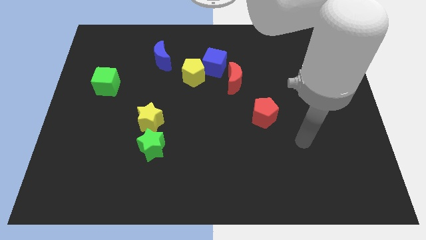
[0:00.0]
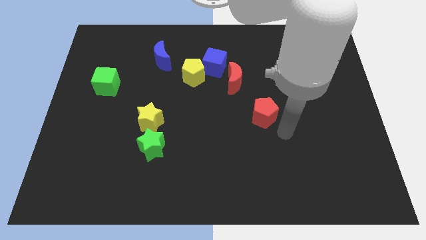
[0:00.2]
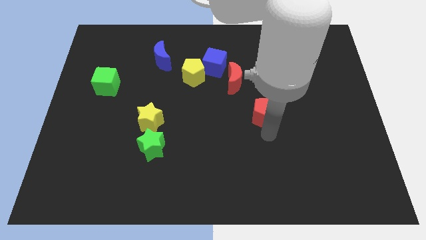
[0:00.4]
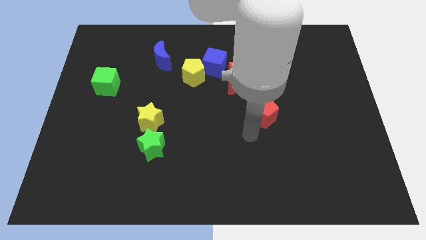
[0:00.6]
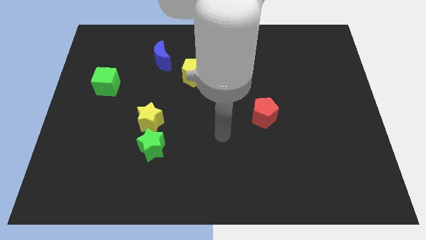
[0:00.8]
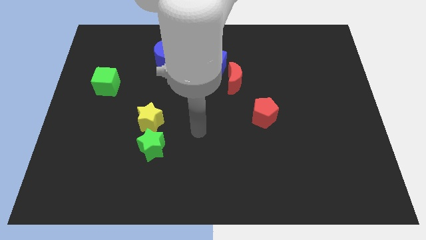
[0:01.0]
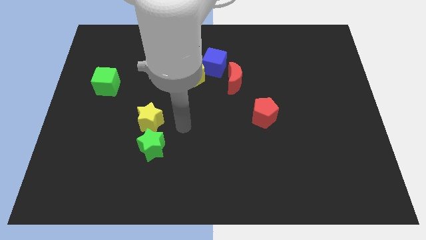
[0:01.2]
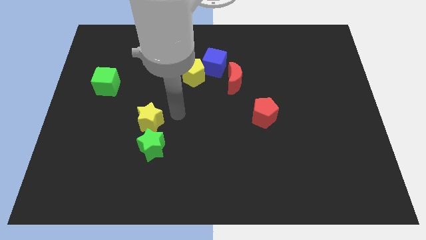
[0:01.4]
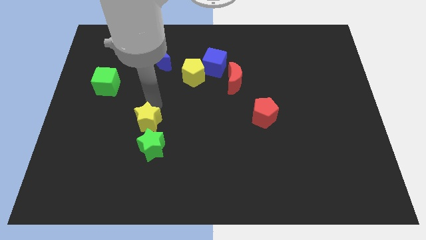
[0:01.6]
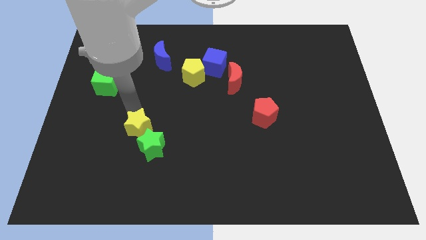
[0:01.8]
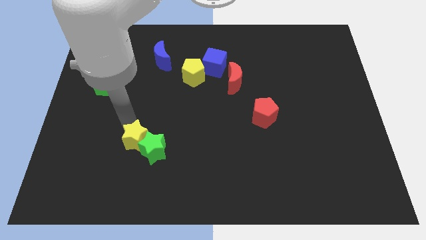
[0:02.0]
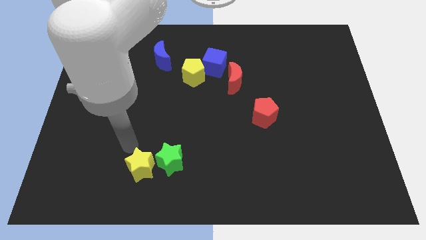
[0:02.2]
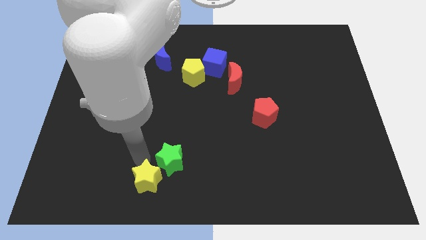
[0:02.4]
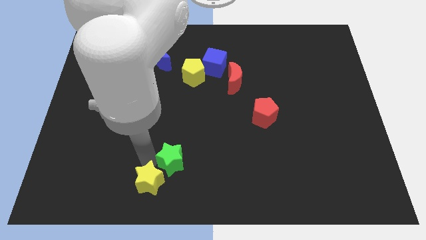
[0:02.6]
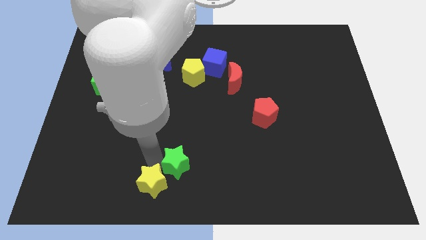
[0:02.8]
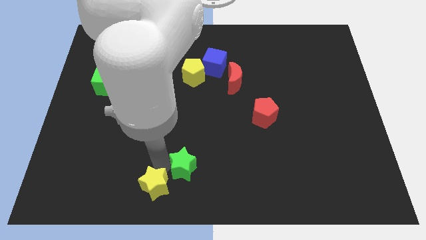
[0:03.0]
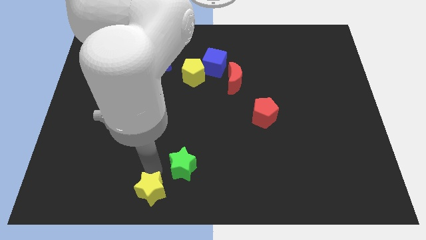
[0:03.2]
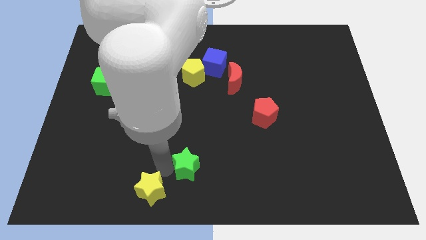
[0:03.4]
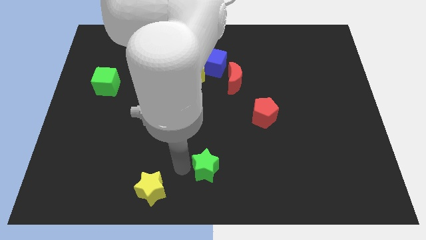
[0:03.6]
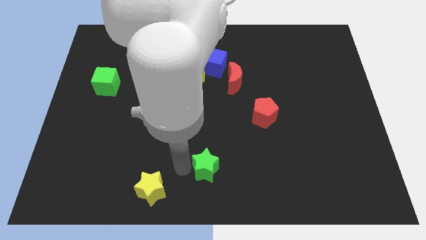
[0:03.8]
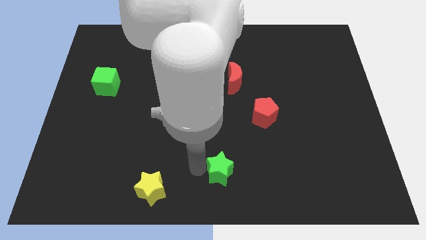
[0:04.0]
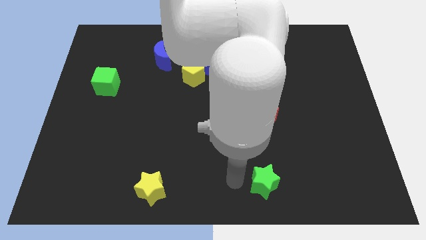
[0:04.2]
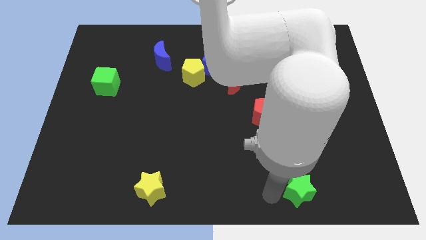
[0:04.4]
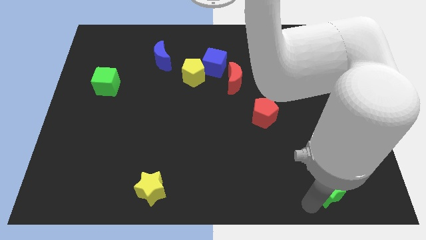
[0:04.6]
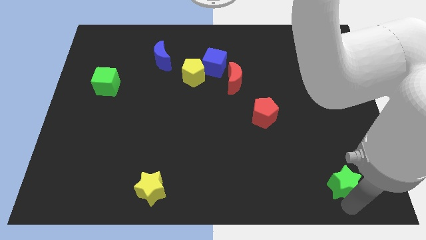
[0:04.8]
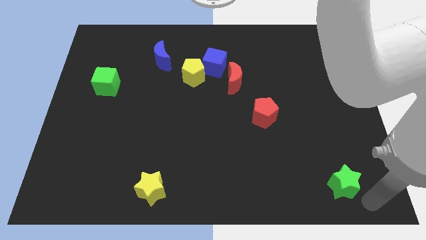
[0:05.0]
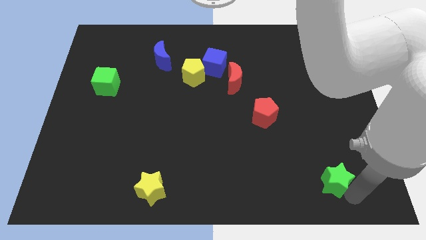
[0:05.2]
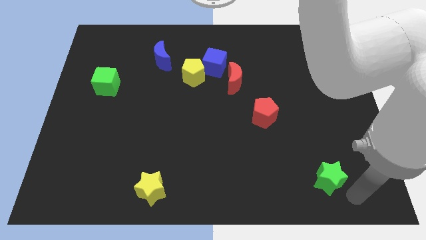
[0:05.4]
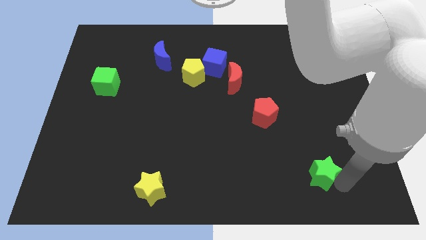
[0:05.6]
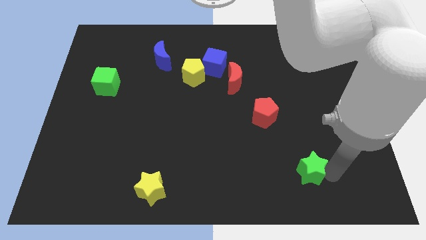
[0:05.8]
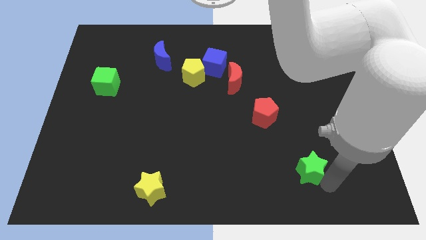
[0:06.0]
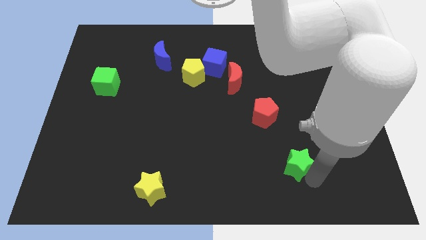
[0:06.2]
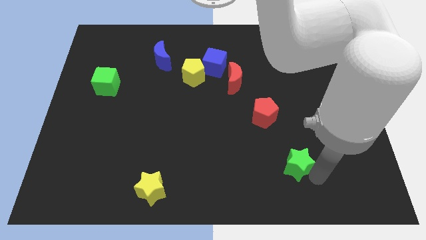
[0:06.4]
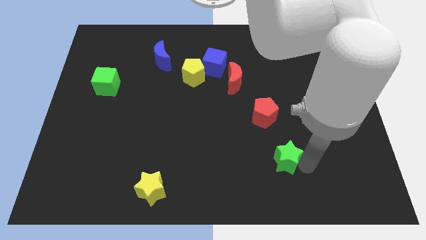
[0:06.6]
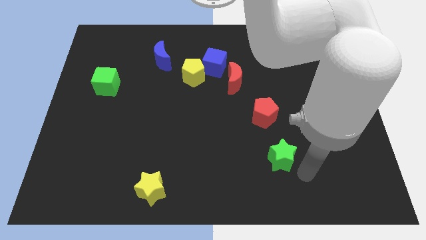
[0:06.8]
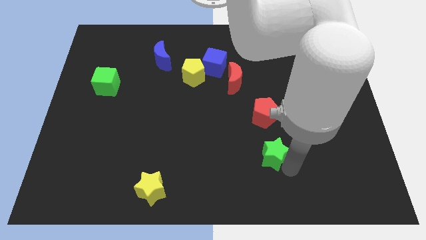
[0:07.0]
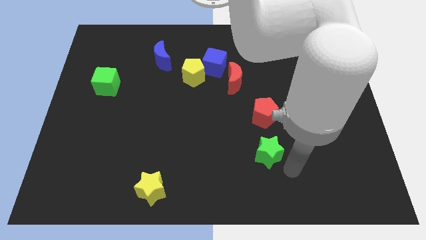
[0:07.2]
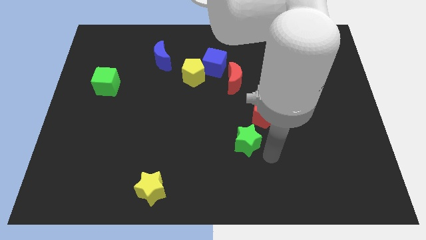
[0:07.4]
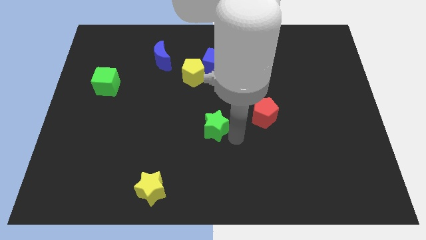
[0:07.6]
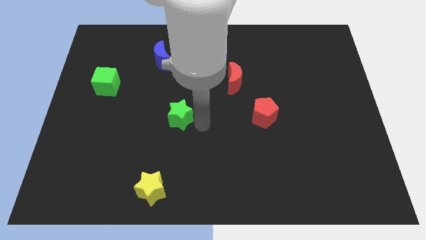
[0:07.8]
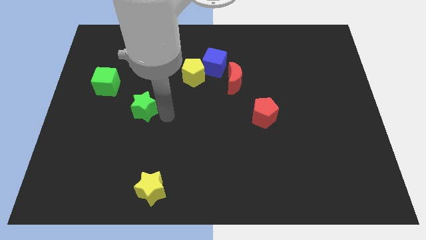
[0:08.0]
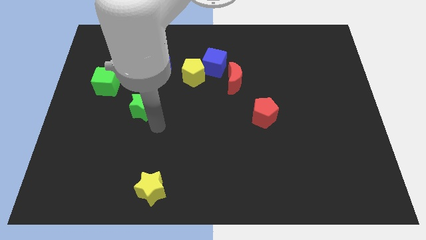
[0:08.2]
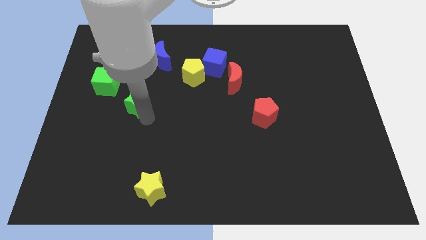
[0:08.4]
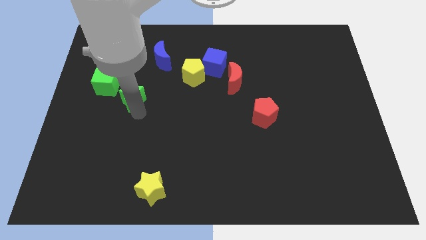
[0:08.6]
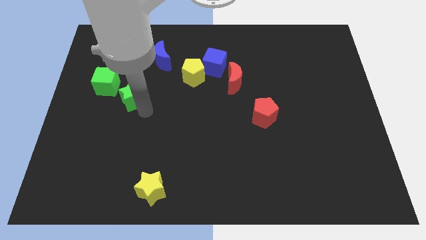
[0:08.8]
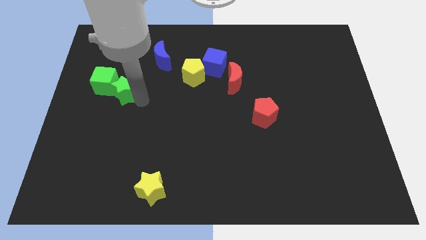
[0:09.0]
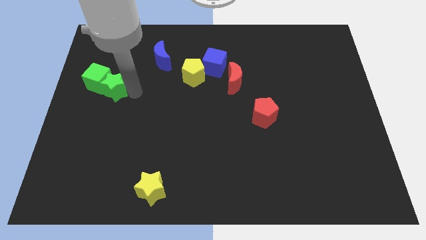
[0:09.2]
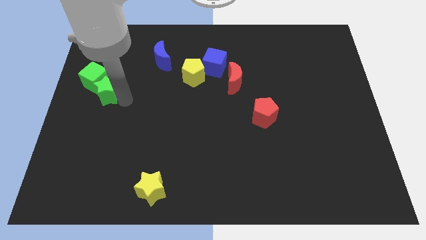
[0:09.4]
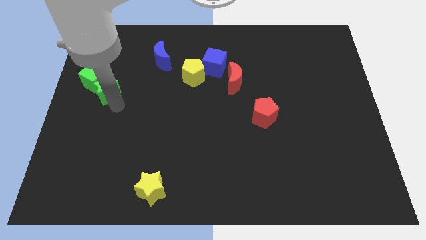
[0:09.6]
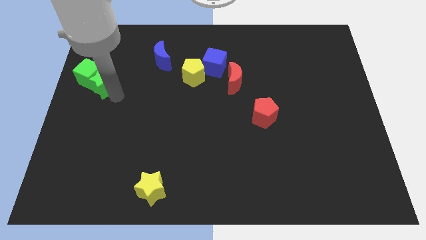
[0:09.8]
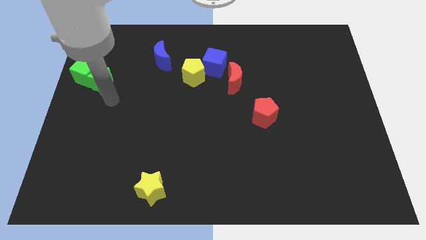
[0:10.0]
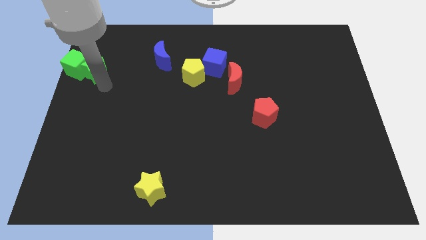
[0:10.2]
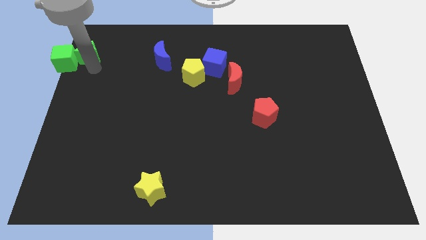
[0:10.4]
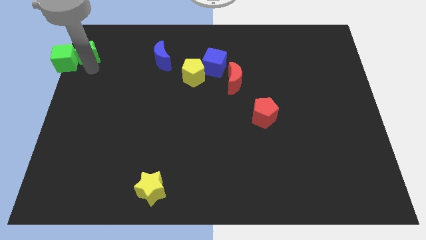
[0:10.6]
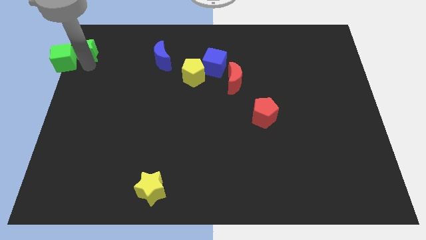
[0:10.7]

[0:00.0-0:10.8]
put the green star to the upper left corner

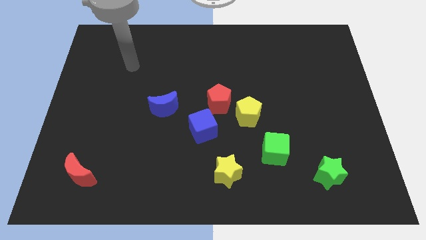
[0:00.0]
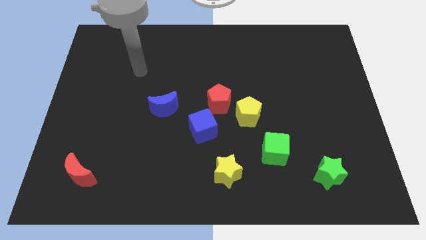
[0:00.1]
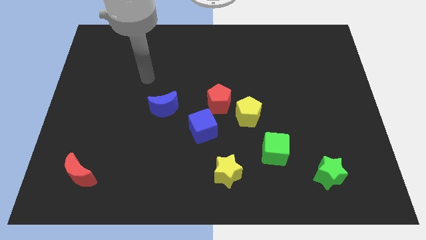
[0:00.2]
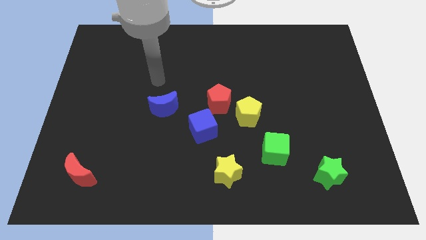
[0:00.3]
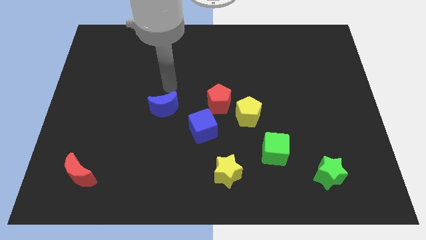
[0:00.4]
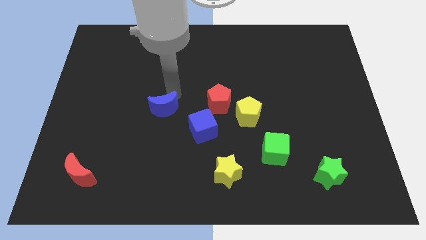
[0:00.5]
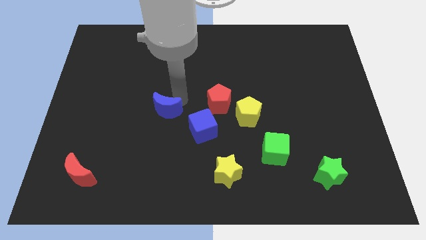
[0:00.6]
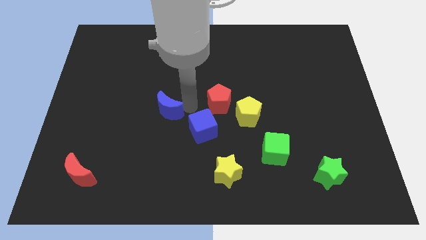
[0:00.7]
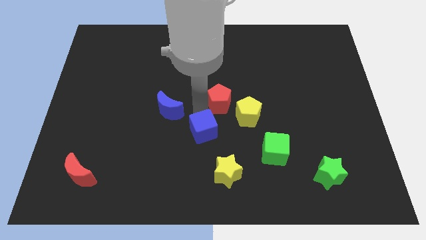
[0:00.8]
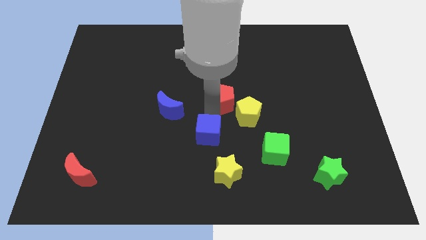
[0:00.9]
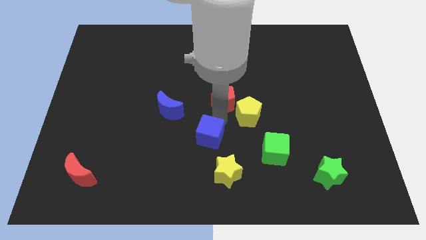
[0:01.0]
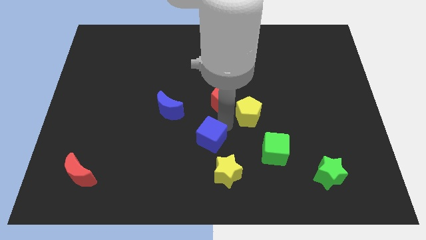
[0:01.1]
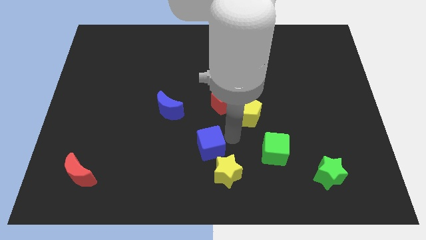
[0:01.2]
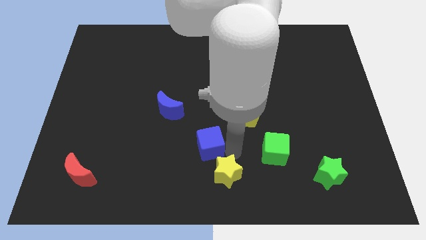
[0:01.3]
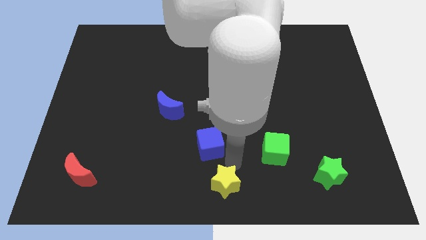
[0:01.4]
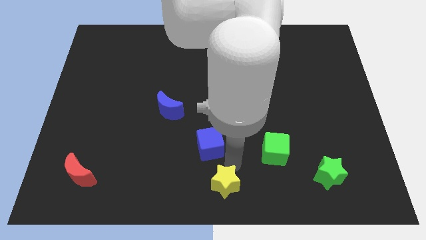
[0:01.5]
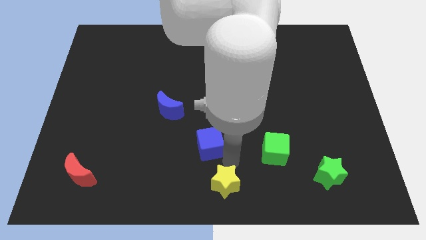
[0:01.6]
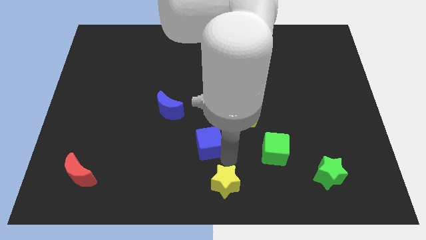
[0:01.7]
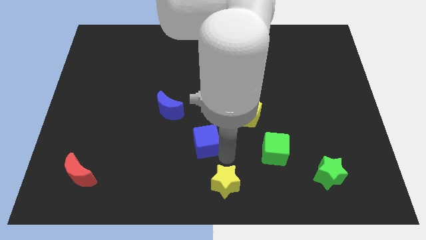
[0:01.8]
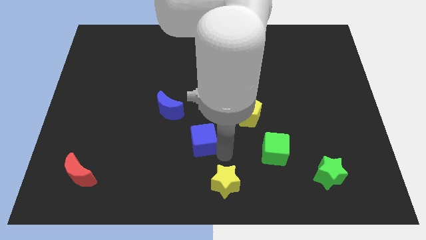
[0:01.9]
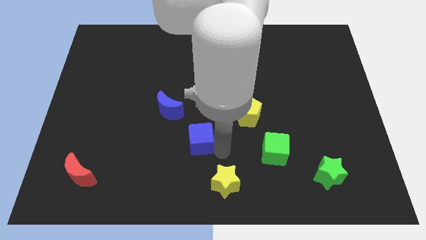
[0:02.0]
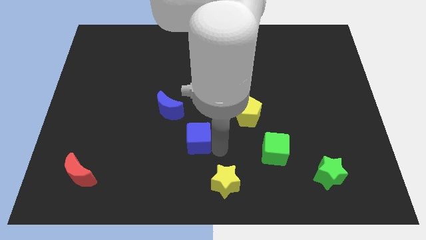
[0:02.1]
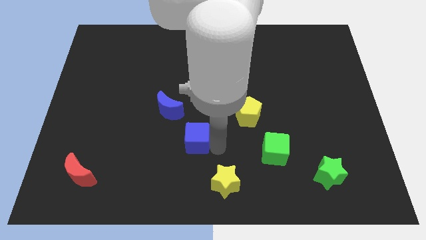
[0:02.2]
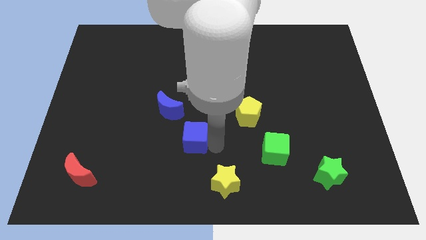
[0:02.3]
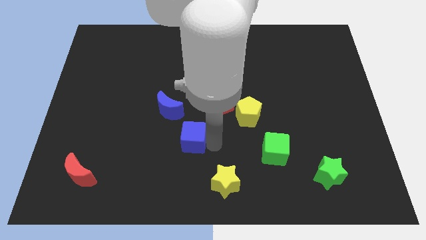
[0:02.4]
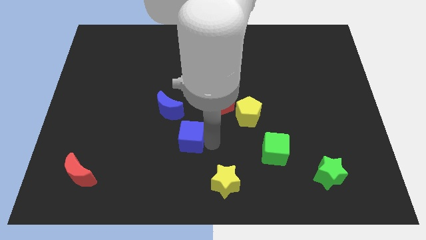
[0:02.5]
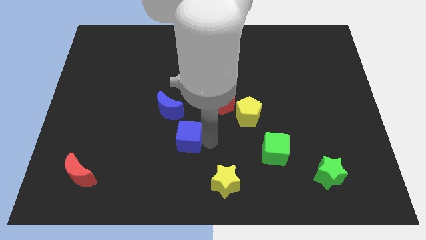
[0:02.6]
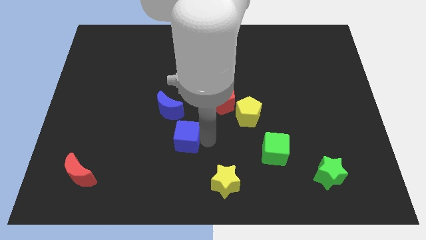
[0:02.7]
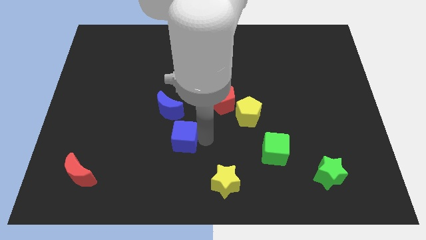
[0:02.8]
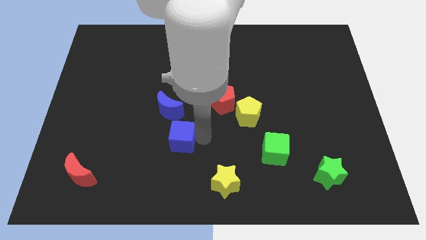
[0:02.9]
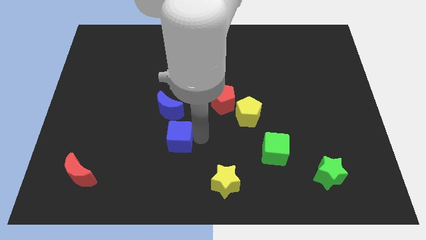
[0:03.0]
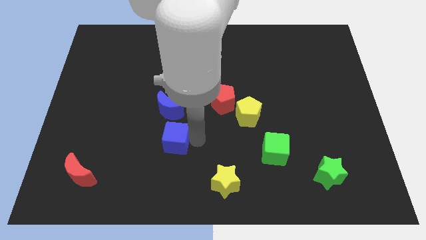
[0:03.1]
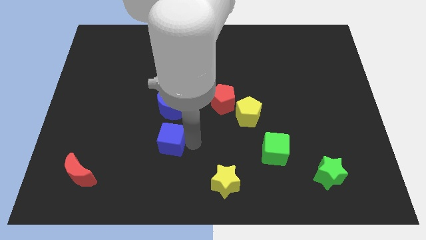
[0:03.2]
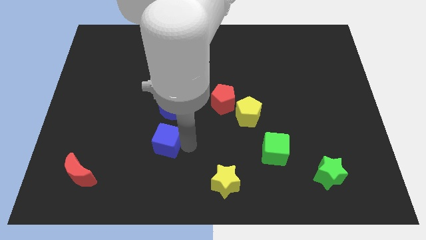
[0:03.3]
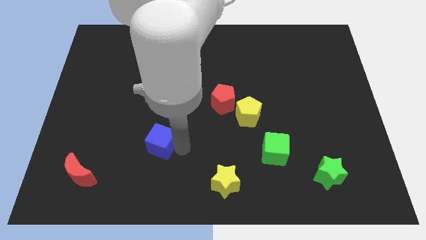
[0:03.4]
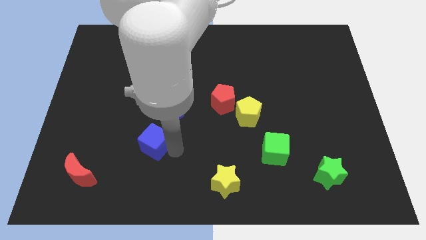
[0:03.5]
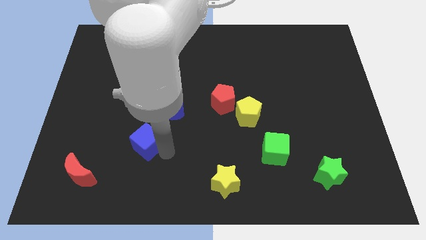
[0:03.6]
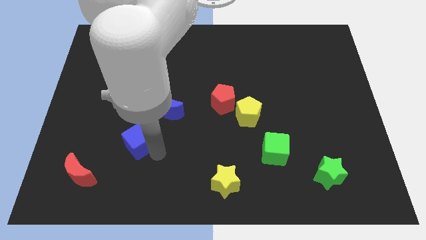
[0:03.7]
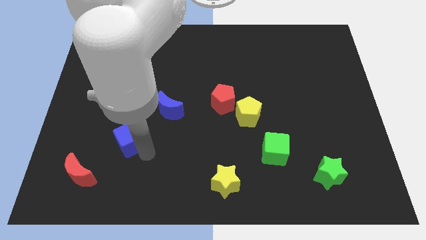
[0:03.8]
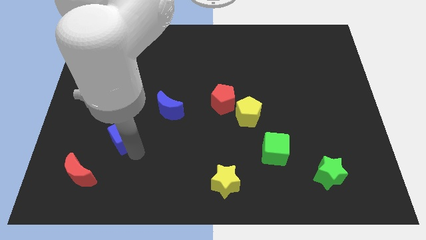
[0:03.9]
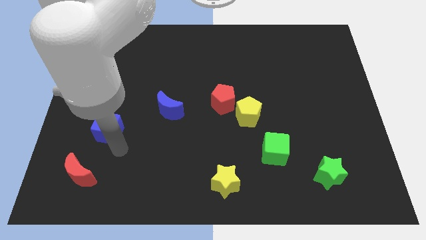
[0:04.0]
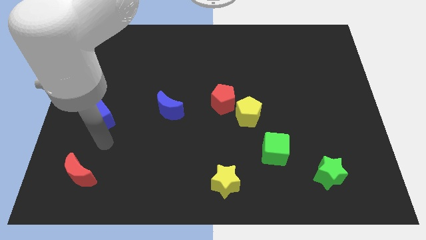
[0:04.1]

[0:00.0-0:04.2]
move the blue cube to the left side
